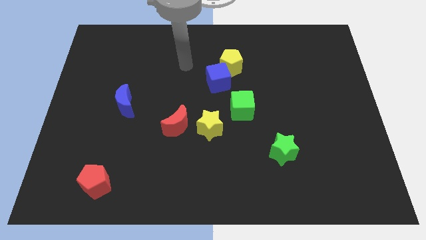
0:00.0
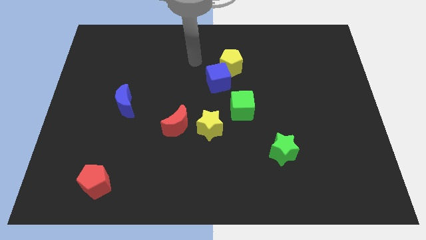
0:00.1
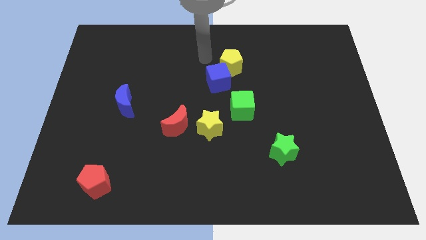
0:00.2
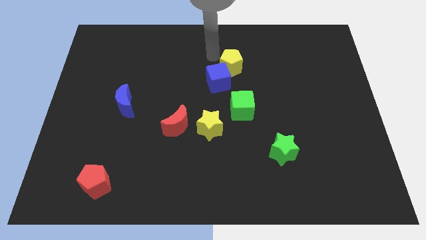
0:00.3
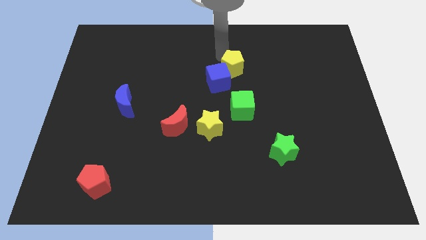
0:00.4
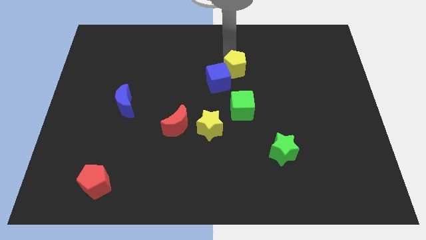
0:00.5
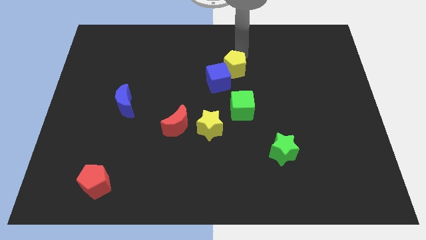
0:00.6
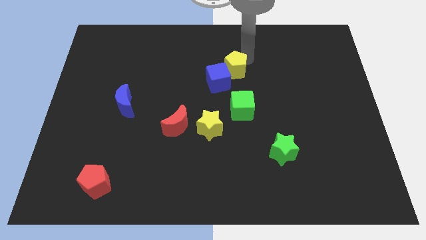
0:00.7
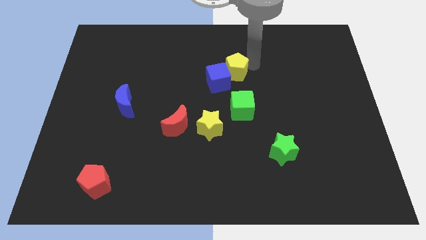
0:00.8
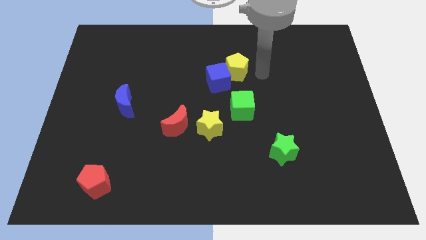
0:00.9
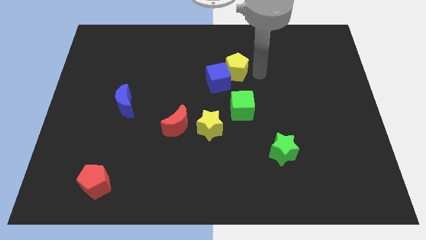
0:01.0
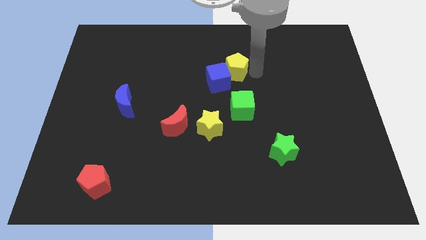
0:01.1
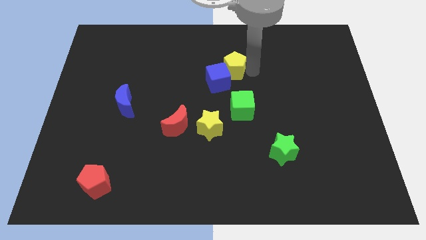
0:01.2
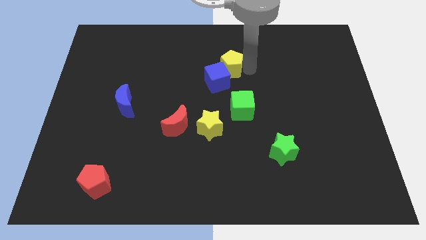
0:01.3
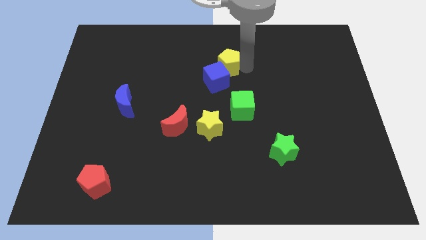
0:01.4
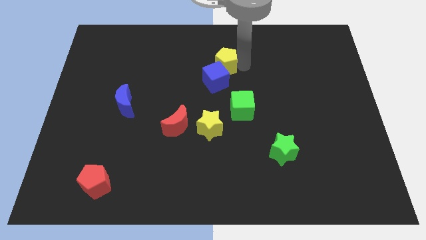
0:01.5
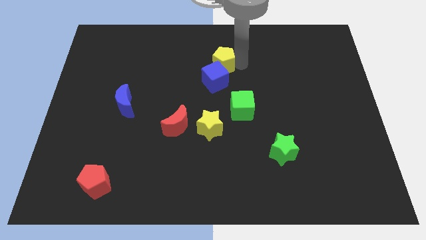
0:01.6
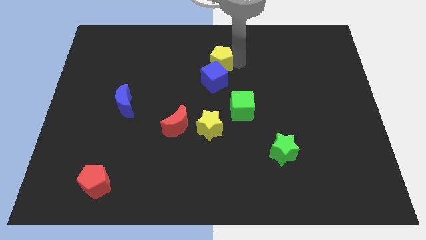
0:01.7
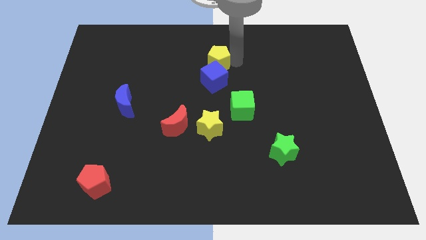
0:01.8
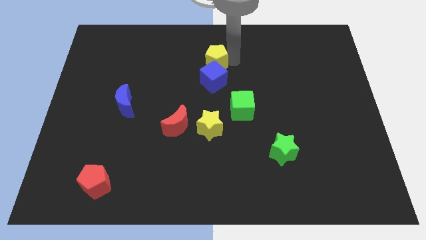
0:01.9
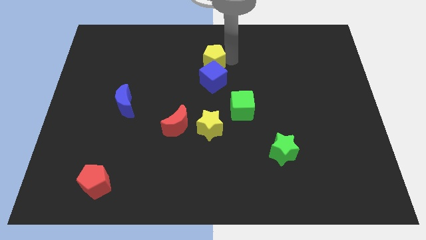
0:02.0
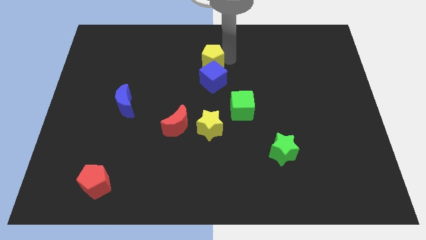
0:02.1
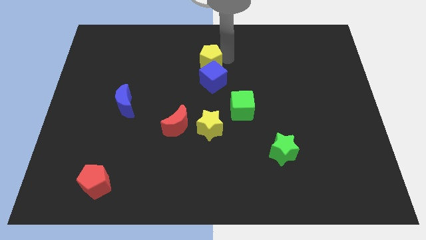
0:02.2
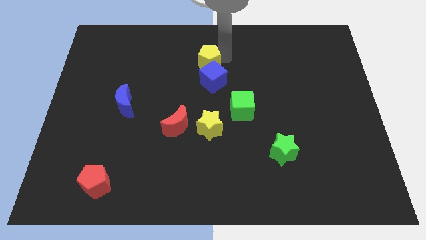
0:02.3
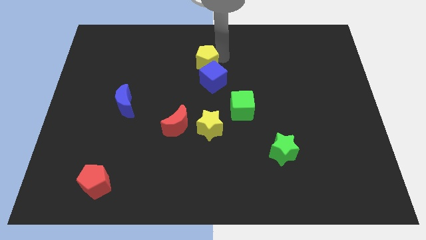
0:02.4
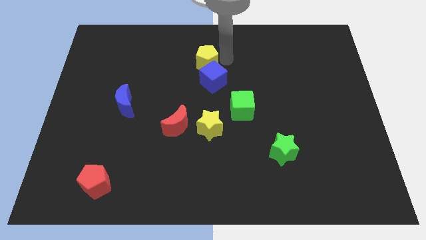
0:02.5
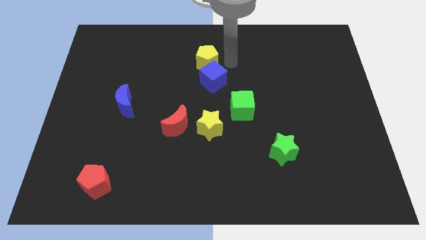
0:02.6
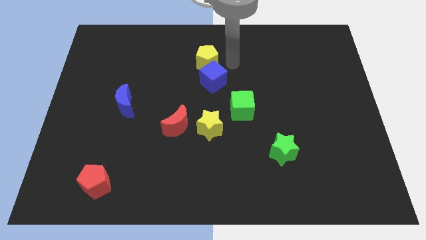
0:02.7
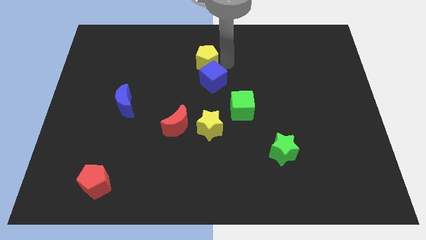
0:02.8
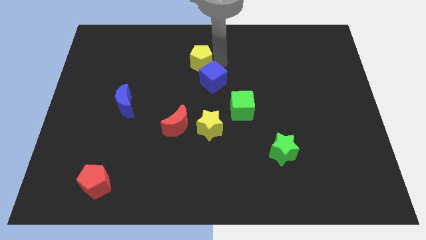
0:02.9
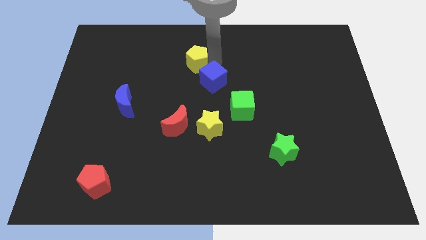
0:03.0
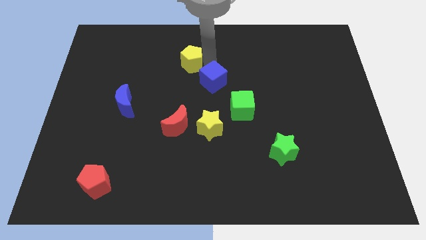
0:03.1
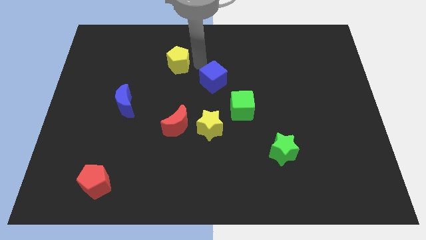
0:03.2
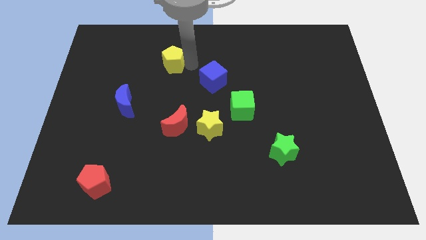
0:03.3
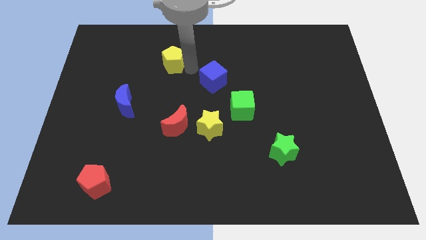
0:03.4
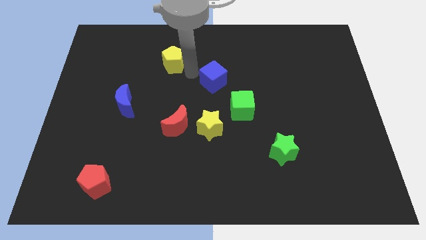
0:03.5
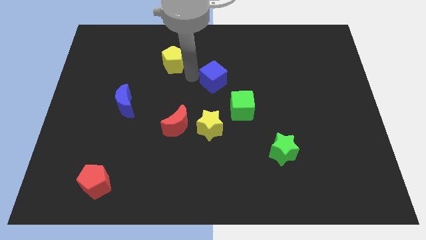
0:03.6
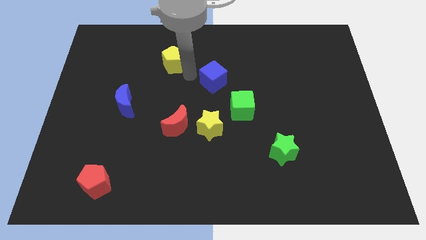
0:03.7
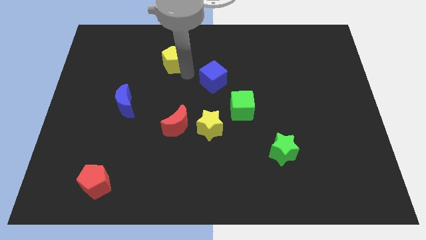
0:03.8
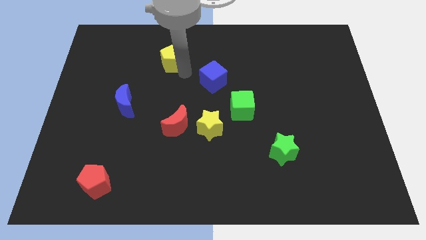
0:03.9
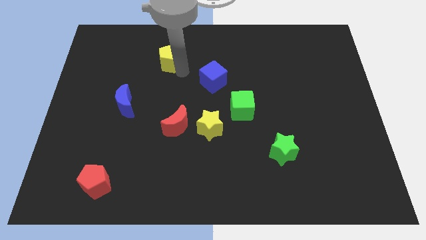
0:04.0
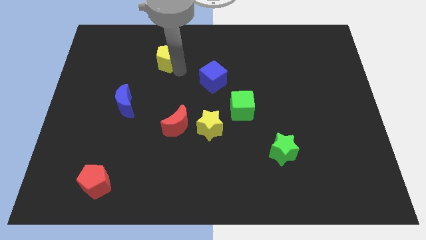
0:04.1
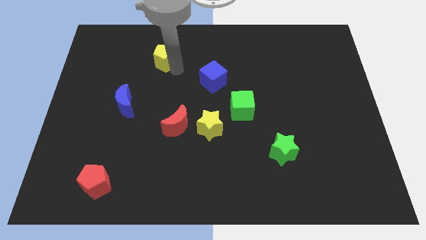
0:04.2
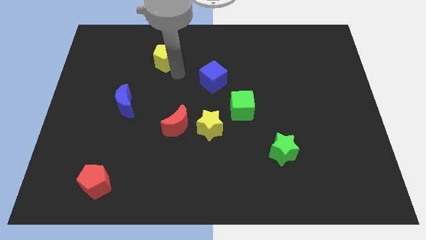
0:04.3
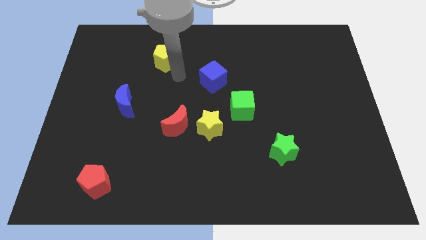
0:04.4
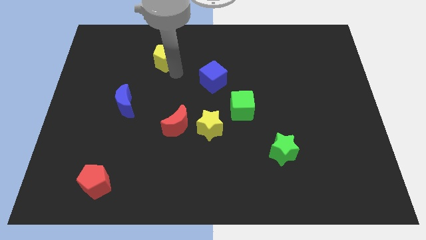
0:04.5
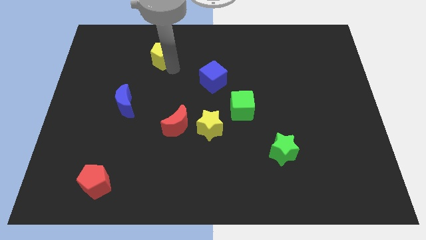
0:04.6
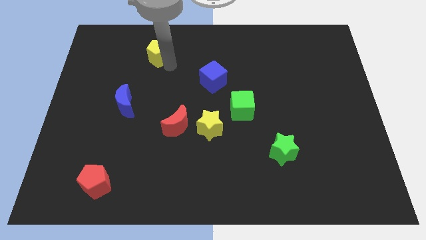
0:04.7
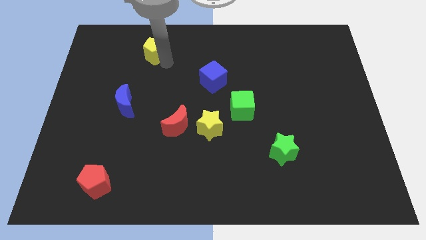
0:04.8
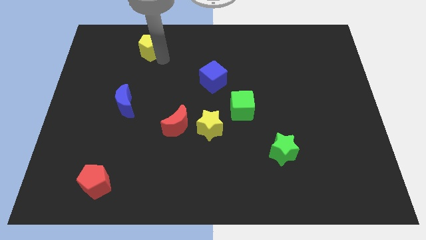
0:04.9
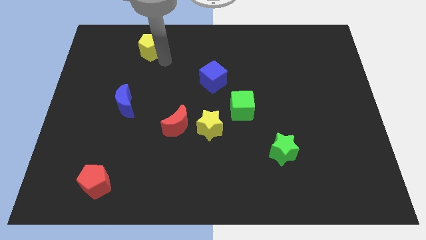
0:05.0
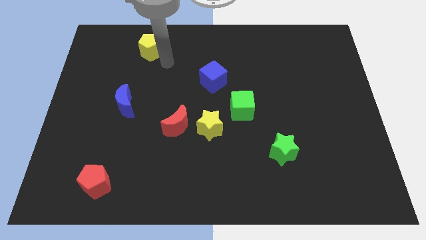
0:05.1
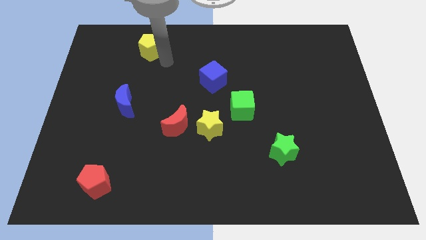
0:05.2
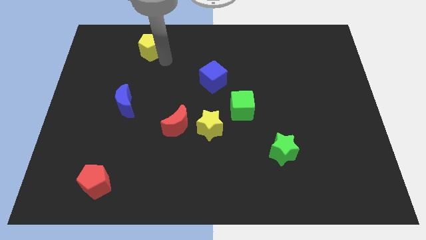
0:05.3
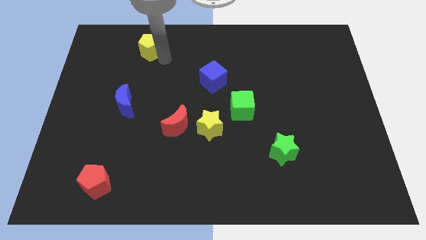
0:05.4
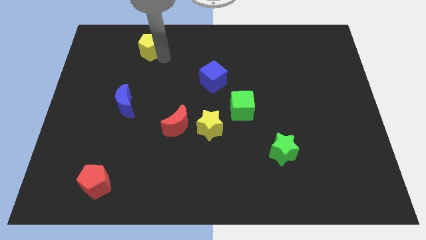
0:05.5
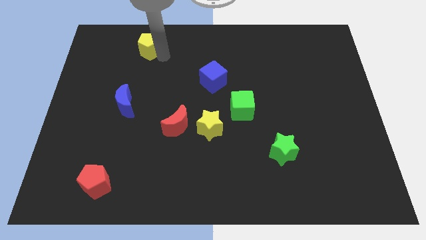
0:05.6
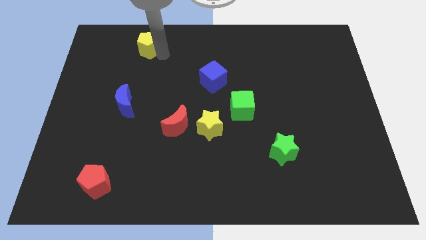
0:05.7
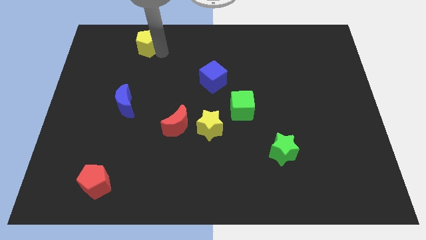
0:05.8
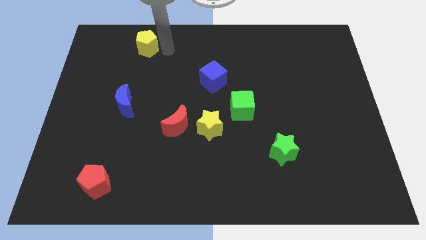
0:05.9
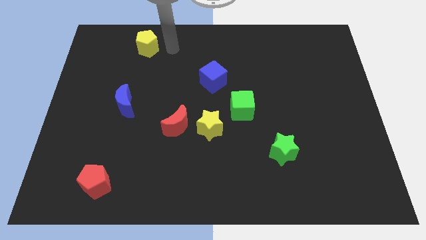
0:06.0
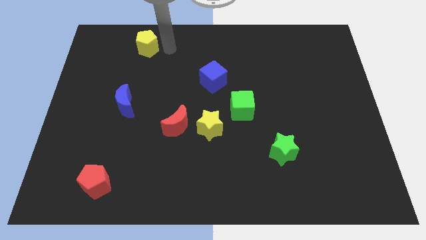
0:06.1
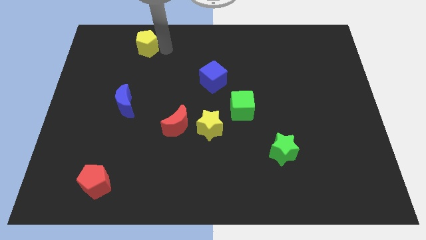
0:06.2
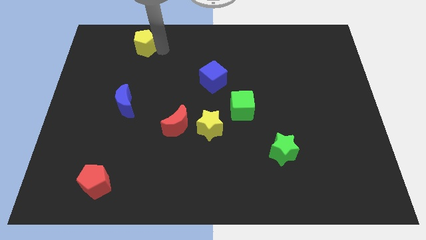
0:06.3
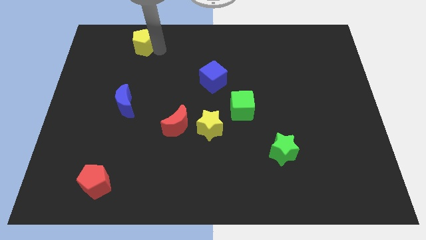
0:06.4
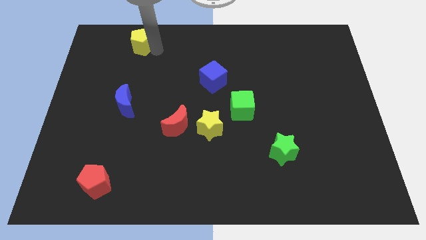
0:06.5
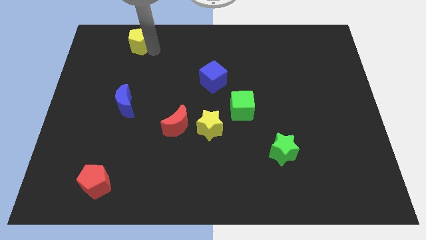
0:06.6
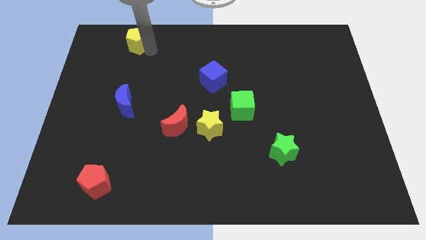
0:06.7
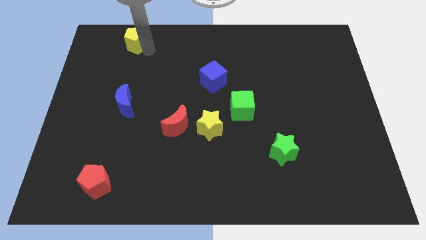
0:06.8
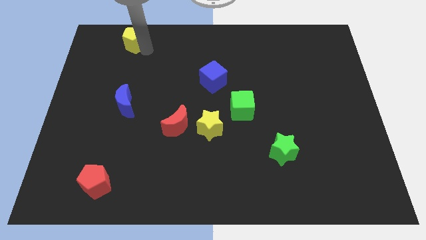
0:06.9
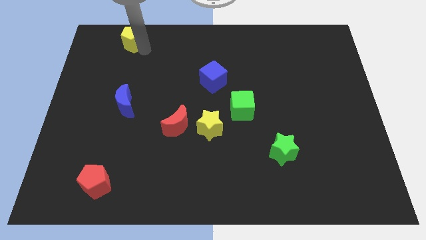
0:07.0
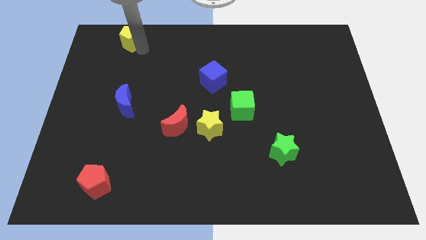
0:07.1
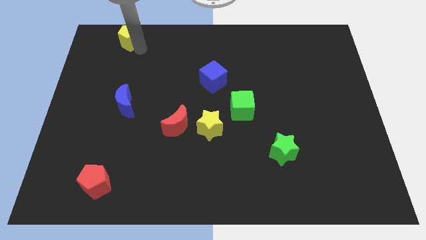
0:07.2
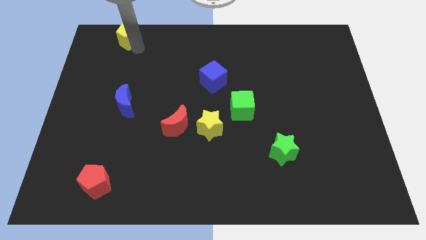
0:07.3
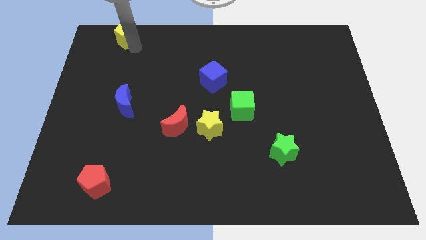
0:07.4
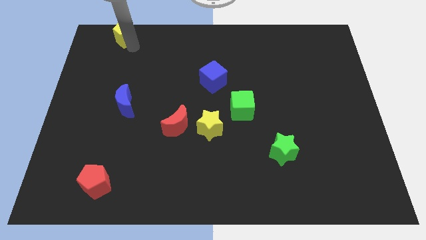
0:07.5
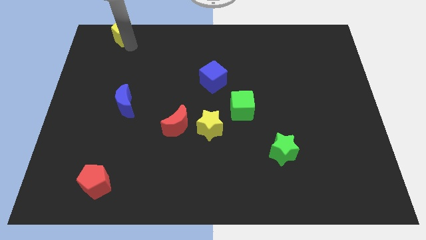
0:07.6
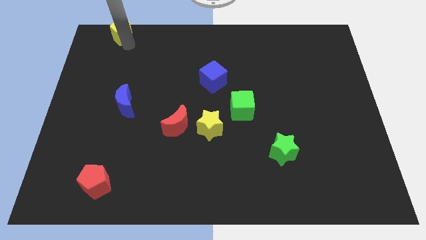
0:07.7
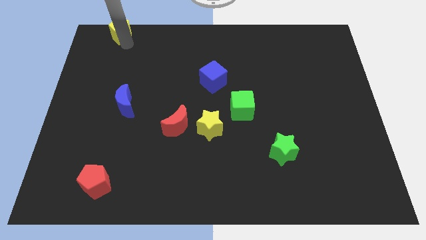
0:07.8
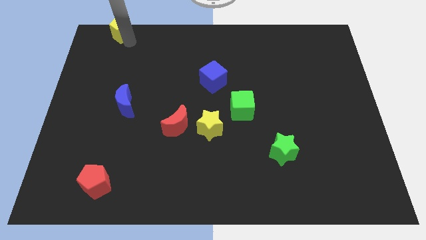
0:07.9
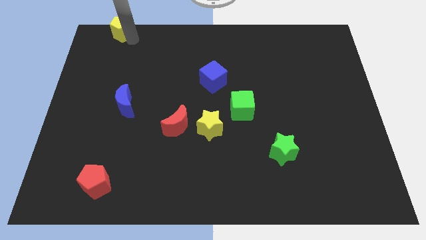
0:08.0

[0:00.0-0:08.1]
put the yellow pentagon to the top left of the board

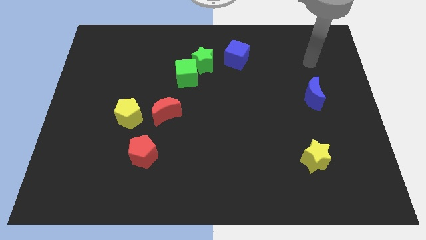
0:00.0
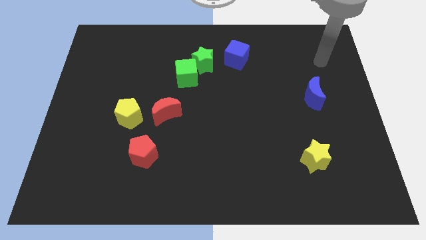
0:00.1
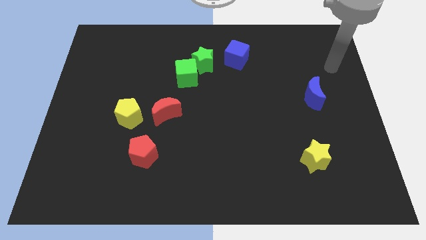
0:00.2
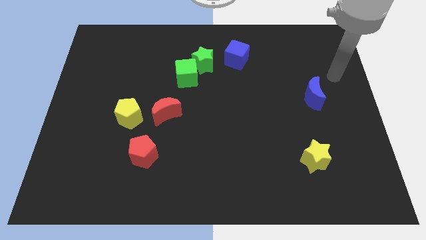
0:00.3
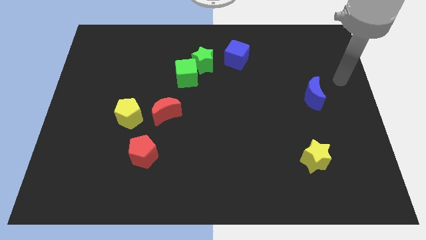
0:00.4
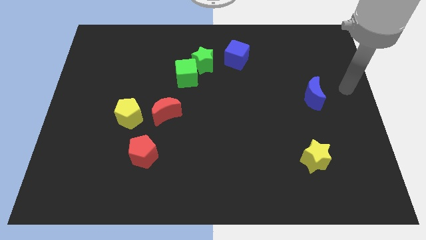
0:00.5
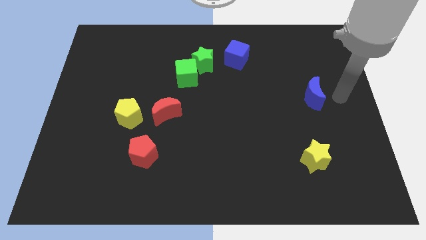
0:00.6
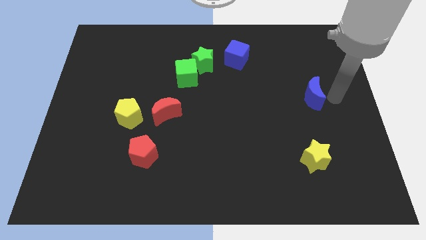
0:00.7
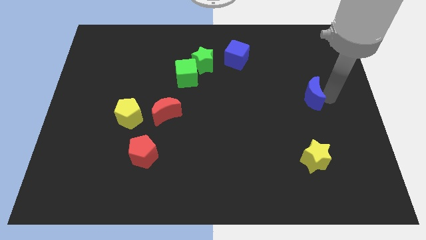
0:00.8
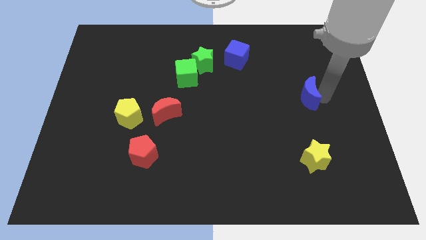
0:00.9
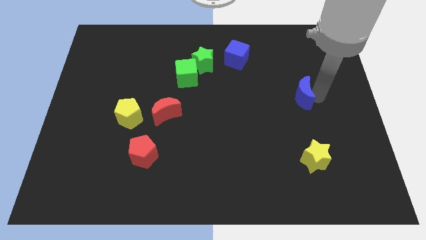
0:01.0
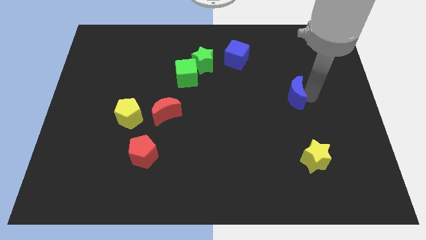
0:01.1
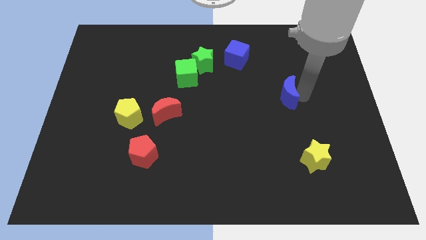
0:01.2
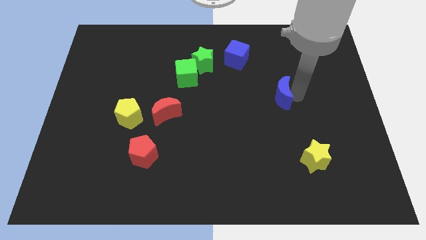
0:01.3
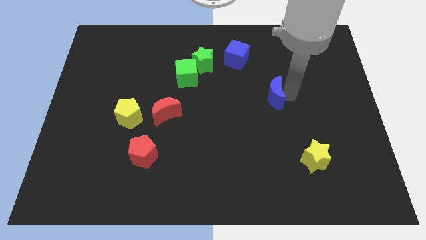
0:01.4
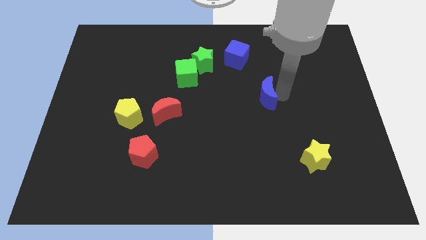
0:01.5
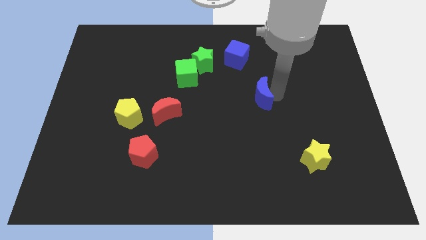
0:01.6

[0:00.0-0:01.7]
move the blue moon to the center
